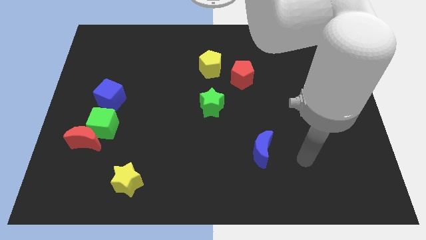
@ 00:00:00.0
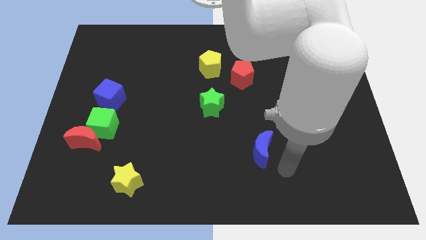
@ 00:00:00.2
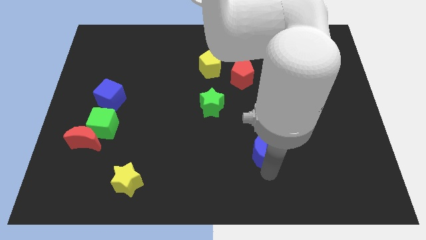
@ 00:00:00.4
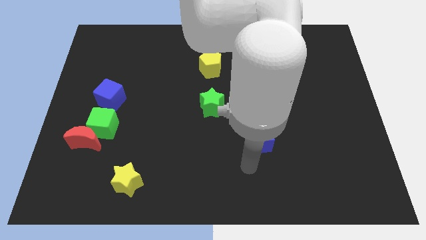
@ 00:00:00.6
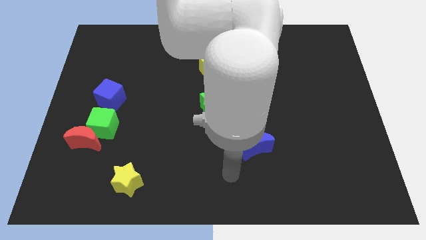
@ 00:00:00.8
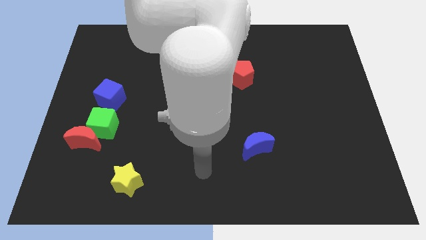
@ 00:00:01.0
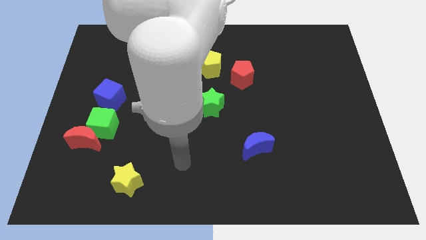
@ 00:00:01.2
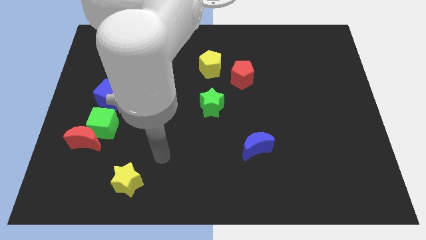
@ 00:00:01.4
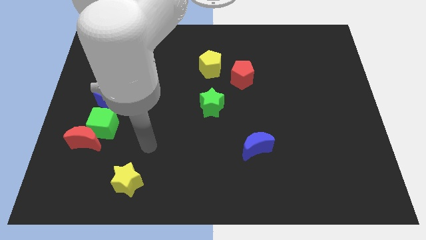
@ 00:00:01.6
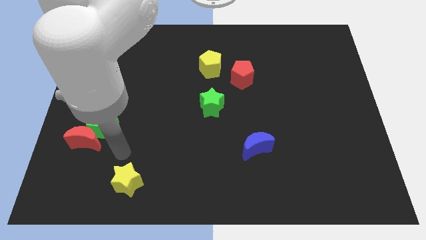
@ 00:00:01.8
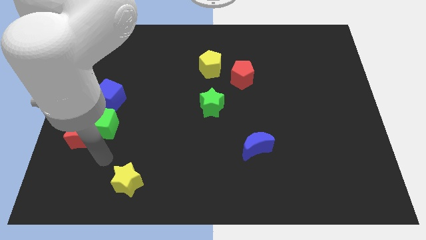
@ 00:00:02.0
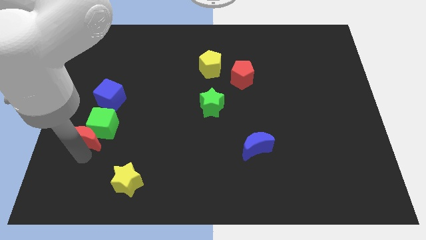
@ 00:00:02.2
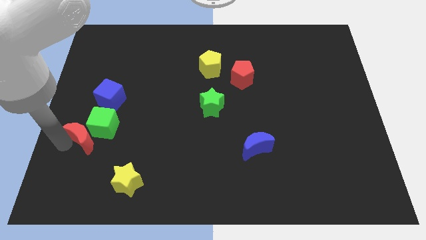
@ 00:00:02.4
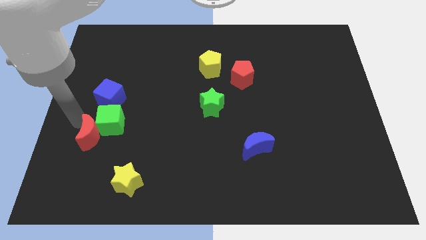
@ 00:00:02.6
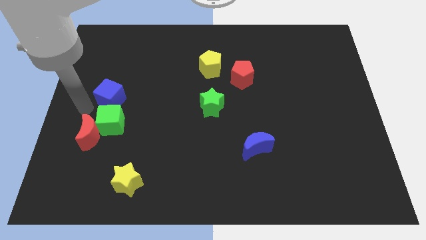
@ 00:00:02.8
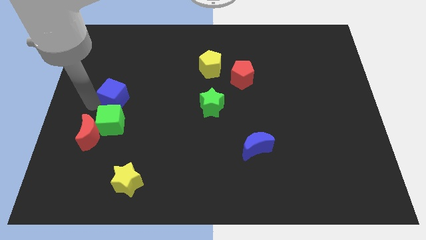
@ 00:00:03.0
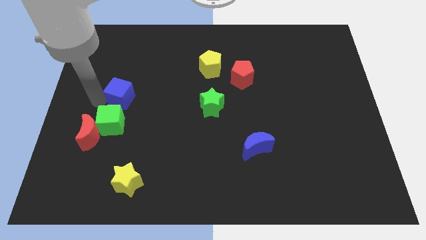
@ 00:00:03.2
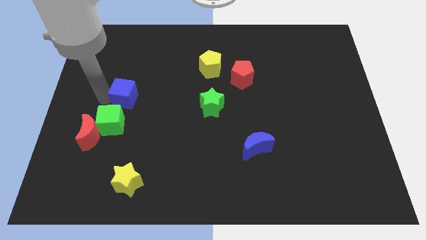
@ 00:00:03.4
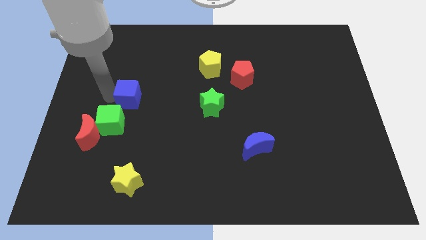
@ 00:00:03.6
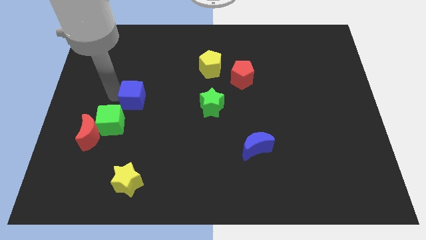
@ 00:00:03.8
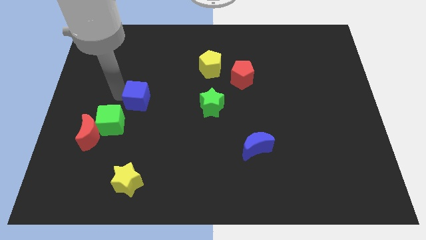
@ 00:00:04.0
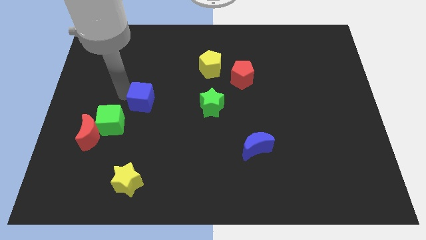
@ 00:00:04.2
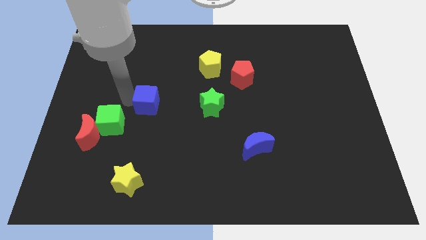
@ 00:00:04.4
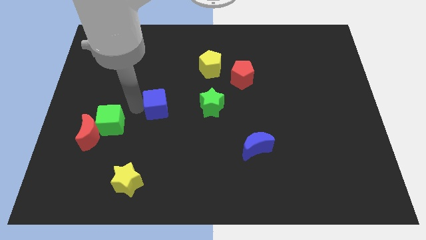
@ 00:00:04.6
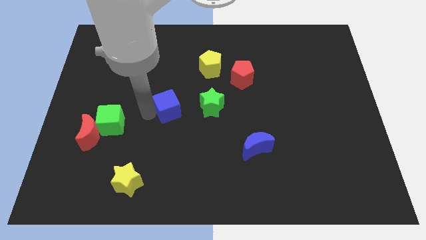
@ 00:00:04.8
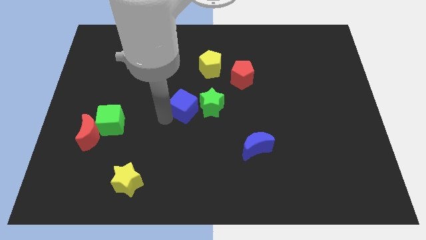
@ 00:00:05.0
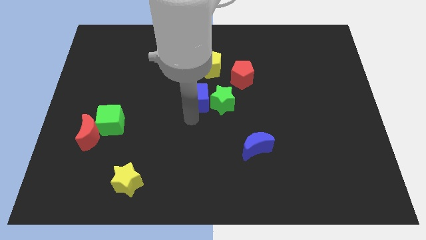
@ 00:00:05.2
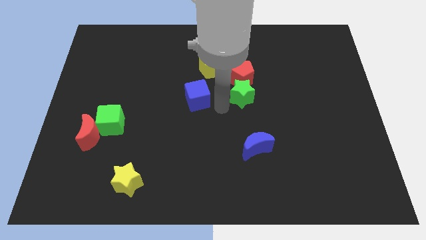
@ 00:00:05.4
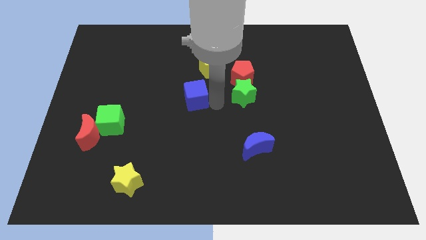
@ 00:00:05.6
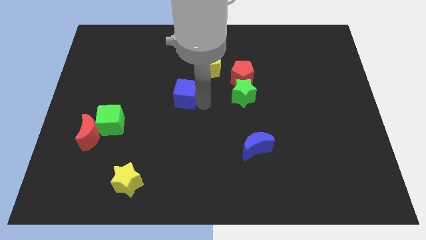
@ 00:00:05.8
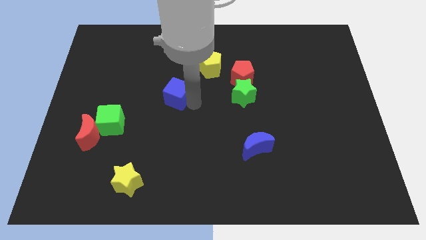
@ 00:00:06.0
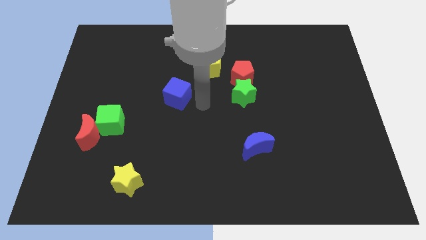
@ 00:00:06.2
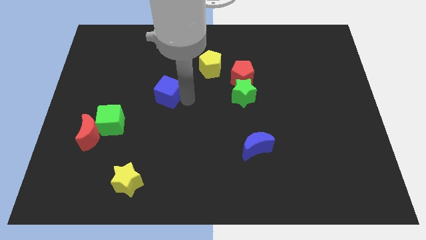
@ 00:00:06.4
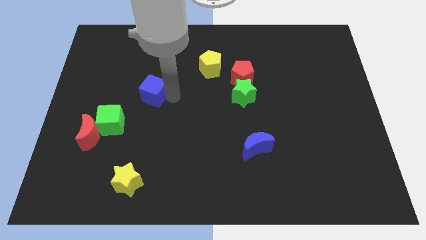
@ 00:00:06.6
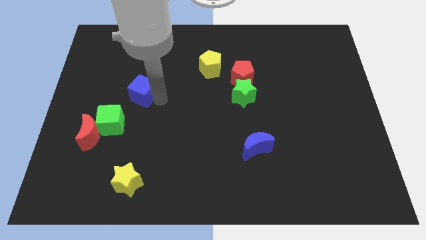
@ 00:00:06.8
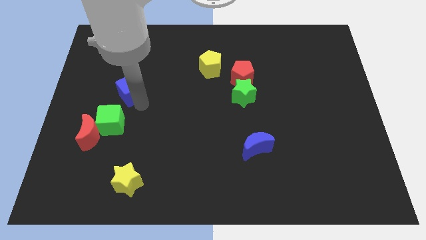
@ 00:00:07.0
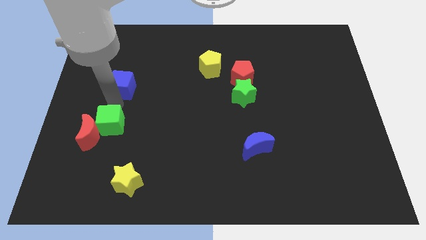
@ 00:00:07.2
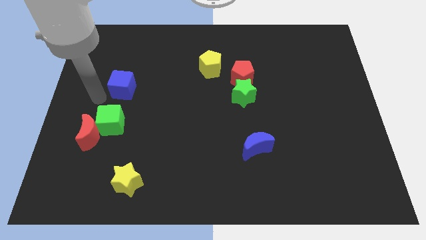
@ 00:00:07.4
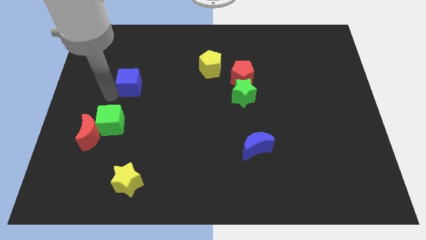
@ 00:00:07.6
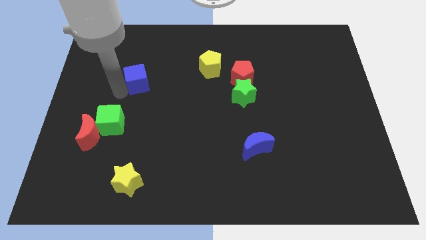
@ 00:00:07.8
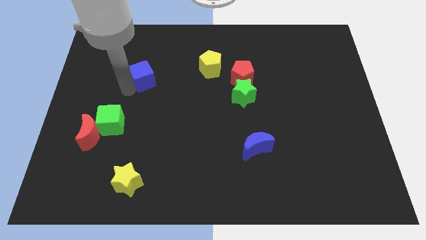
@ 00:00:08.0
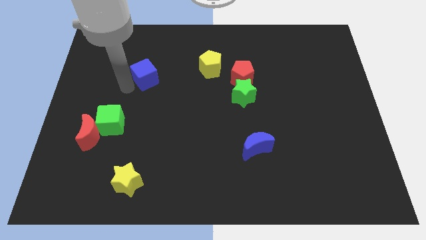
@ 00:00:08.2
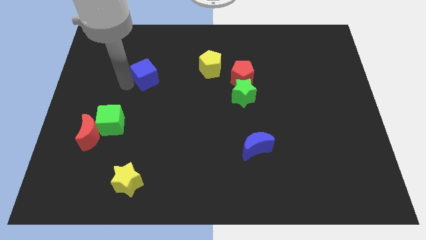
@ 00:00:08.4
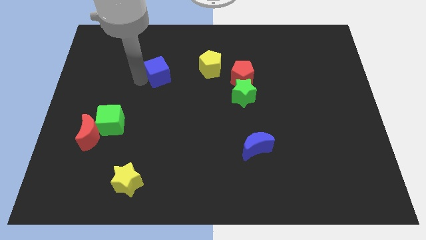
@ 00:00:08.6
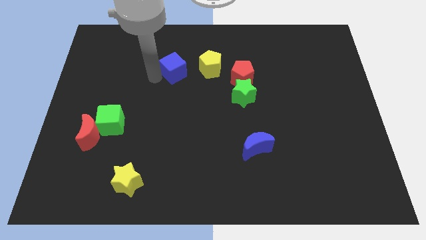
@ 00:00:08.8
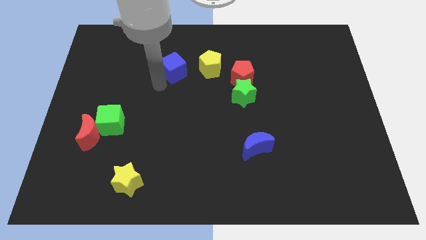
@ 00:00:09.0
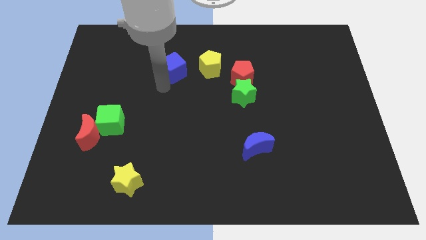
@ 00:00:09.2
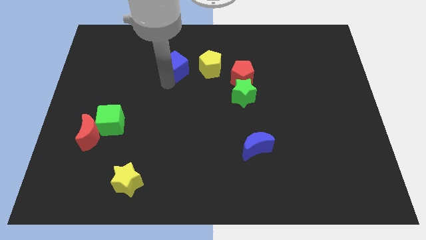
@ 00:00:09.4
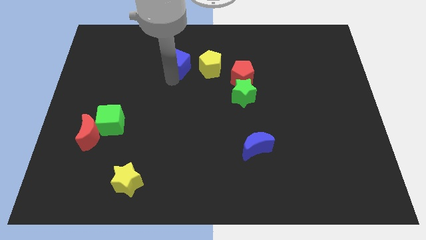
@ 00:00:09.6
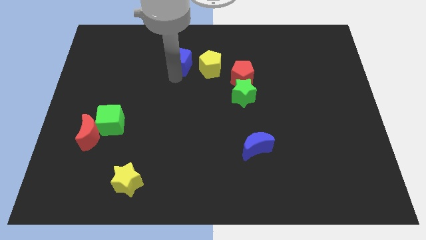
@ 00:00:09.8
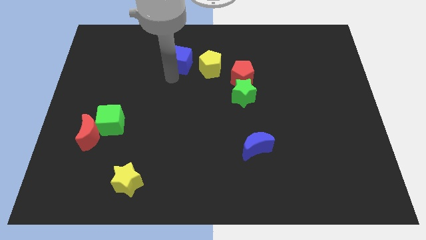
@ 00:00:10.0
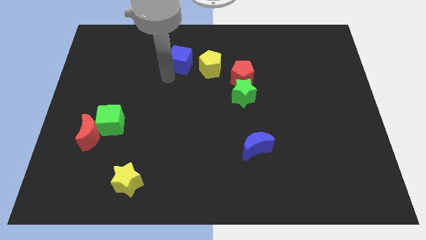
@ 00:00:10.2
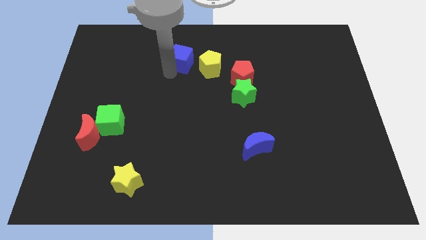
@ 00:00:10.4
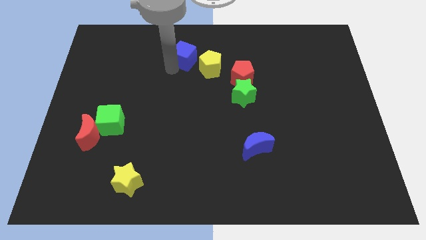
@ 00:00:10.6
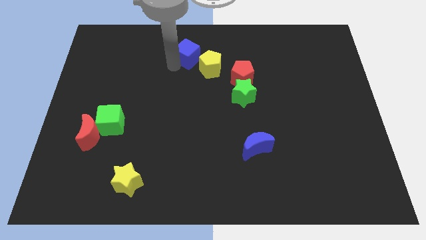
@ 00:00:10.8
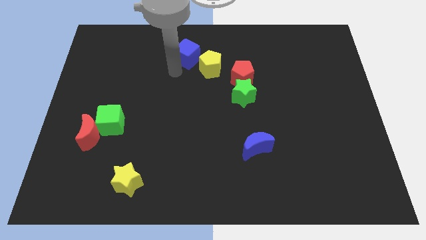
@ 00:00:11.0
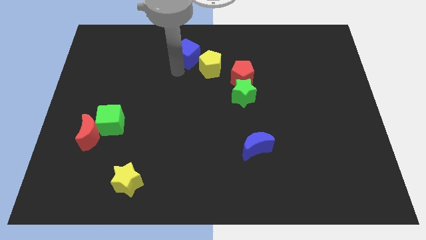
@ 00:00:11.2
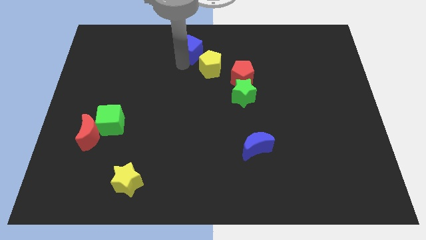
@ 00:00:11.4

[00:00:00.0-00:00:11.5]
slide the blue cube to the top side

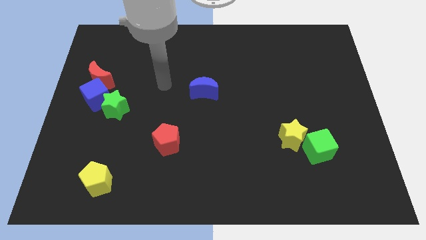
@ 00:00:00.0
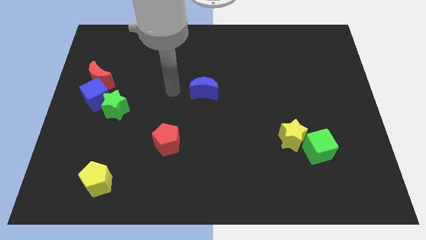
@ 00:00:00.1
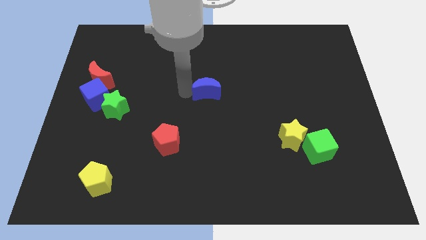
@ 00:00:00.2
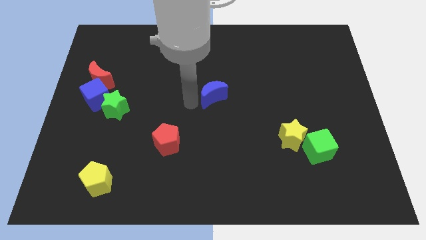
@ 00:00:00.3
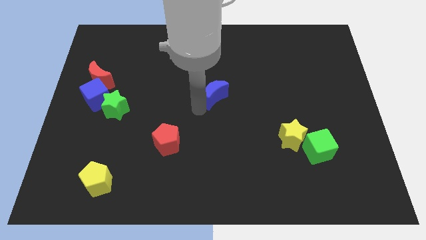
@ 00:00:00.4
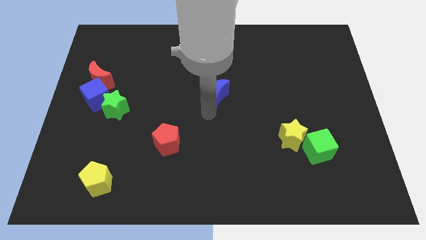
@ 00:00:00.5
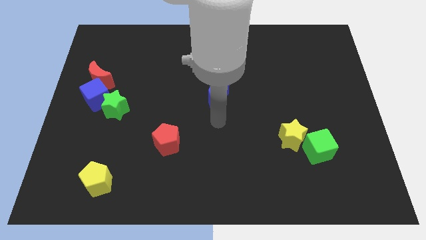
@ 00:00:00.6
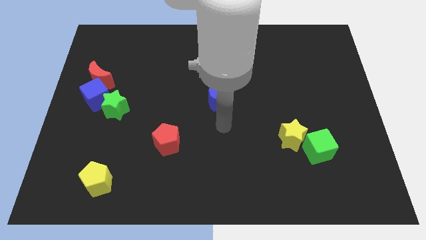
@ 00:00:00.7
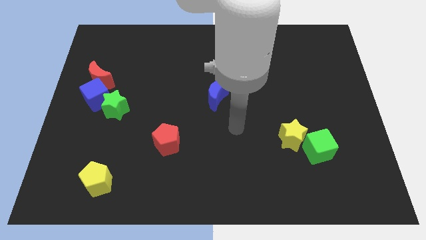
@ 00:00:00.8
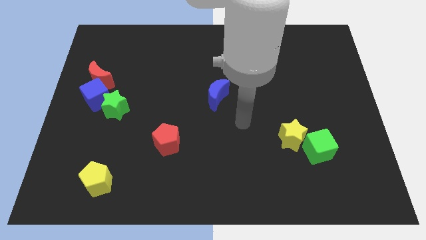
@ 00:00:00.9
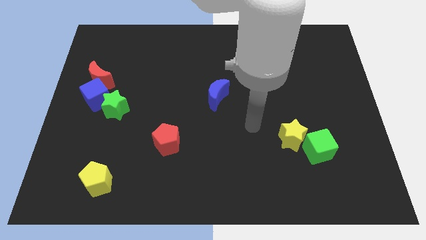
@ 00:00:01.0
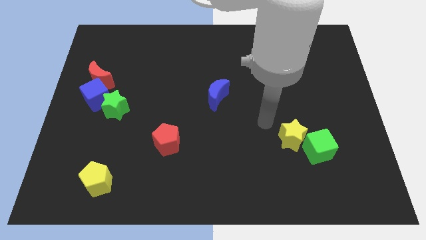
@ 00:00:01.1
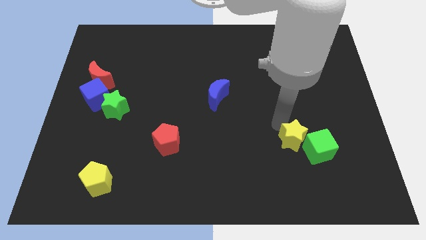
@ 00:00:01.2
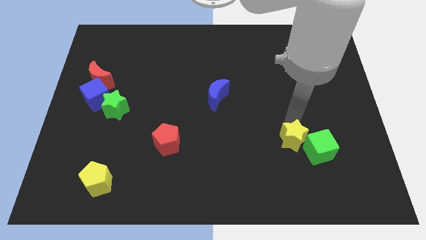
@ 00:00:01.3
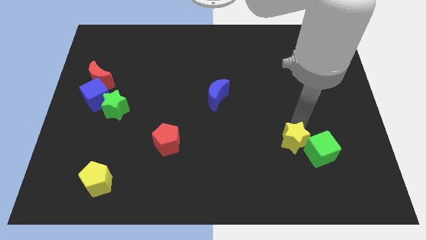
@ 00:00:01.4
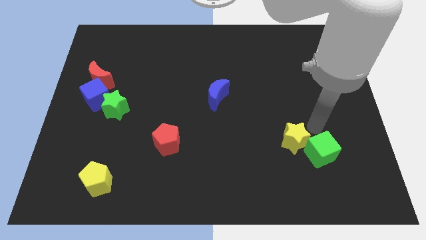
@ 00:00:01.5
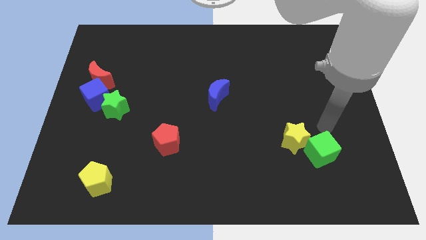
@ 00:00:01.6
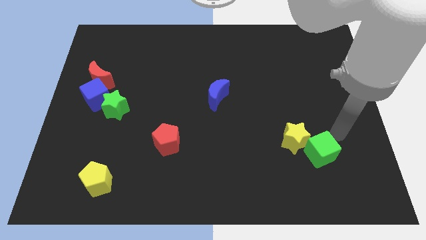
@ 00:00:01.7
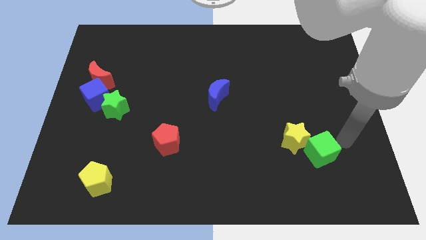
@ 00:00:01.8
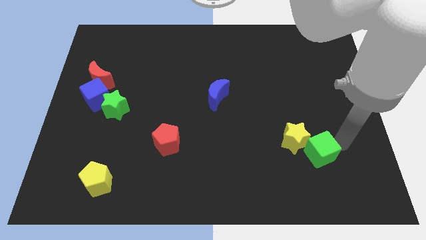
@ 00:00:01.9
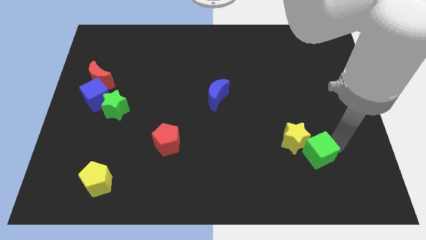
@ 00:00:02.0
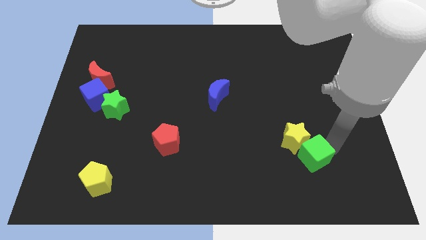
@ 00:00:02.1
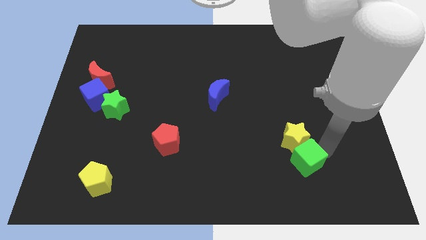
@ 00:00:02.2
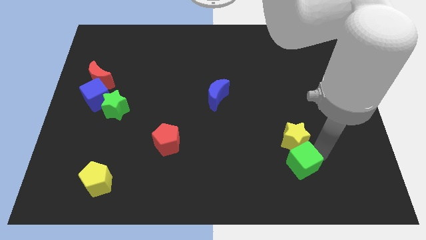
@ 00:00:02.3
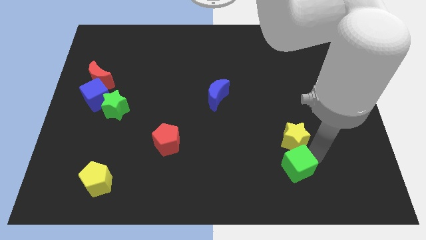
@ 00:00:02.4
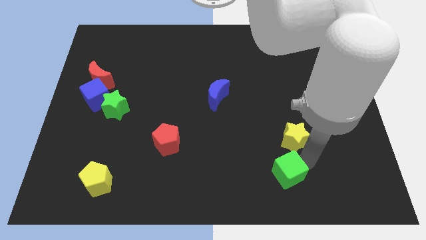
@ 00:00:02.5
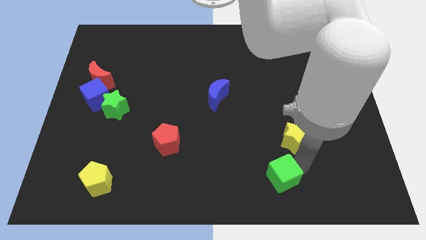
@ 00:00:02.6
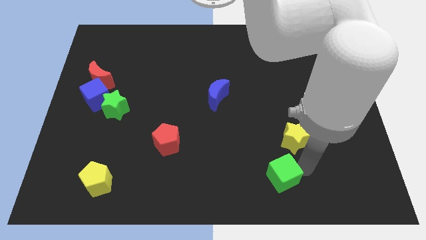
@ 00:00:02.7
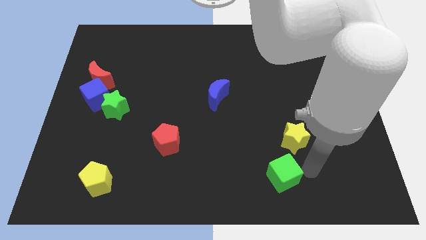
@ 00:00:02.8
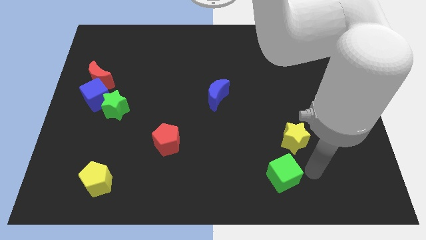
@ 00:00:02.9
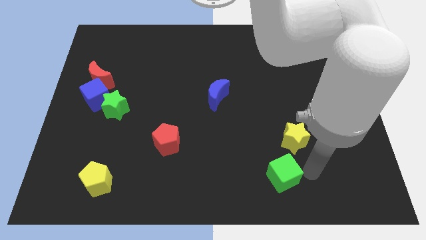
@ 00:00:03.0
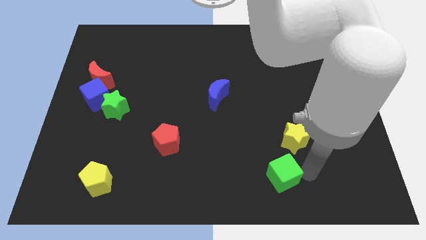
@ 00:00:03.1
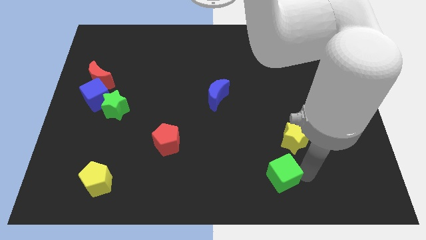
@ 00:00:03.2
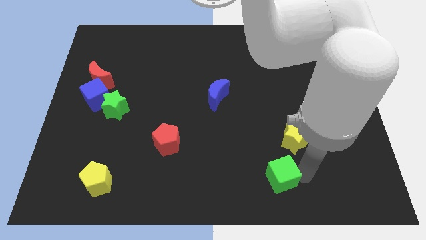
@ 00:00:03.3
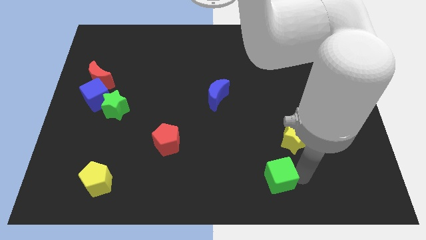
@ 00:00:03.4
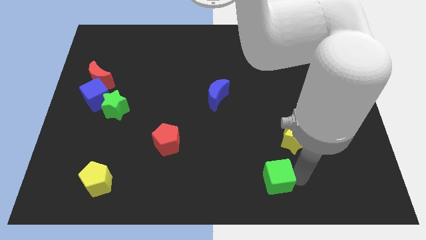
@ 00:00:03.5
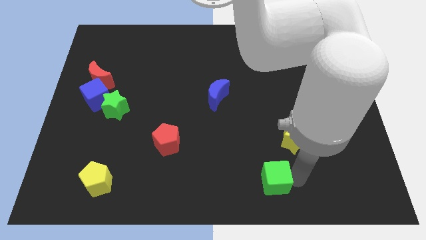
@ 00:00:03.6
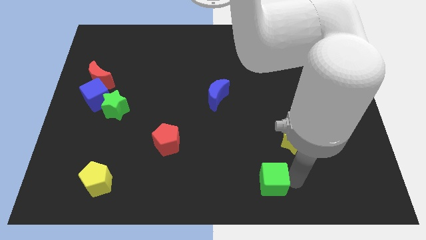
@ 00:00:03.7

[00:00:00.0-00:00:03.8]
put the green cube to the bottom
